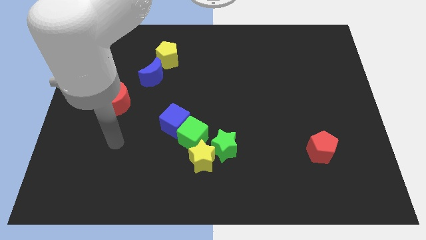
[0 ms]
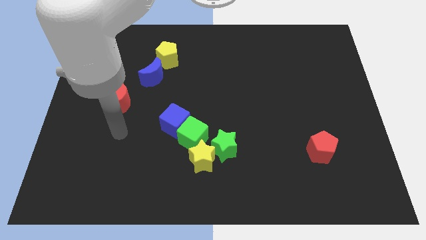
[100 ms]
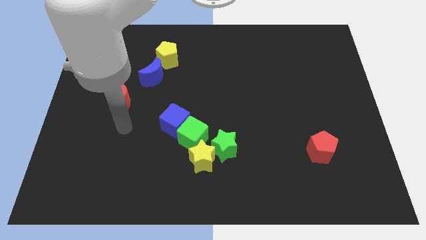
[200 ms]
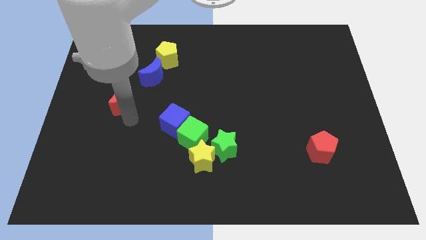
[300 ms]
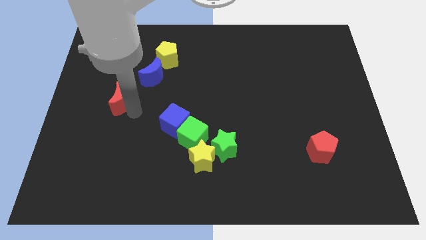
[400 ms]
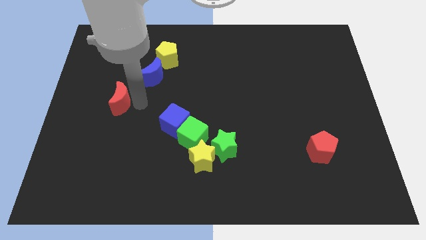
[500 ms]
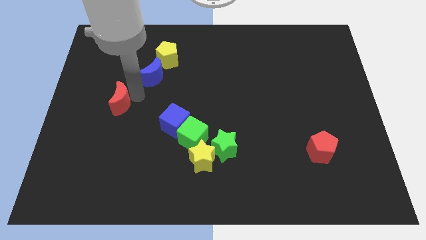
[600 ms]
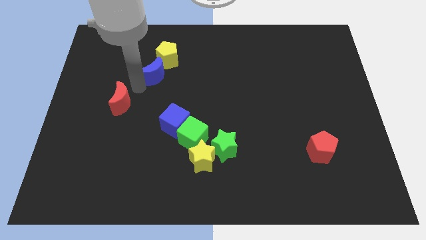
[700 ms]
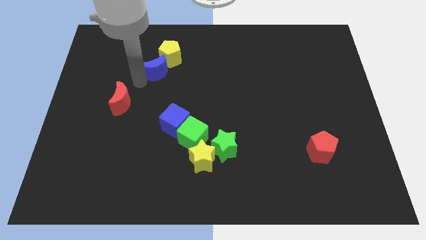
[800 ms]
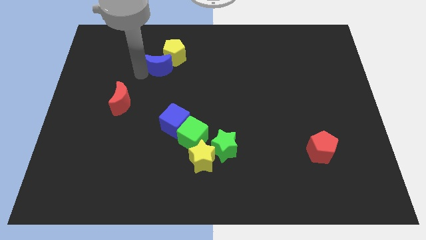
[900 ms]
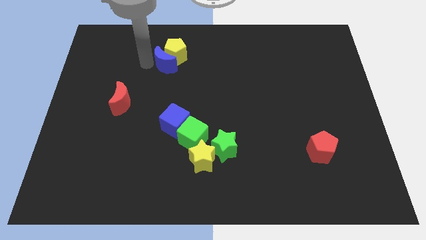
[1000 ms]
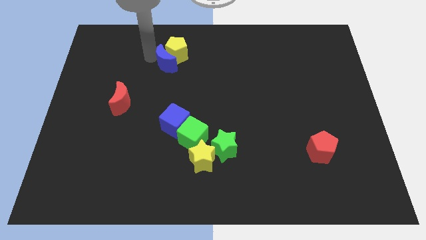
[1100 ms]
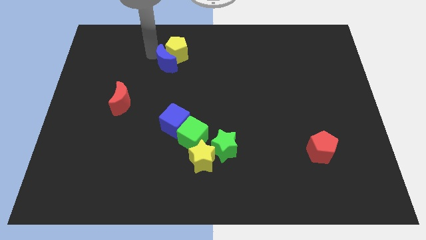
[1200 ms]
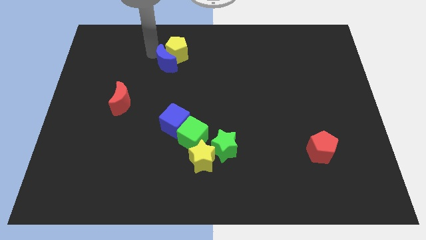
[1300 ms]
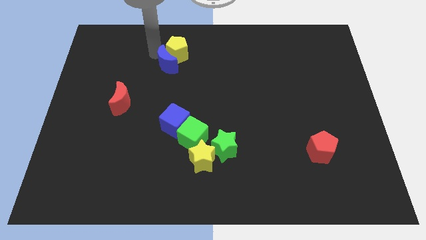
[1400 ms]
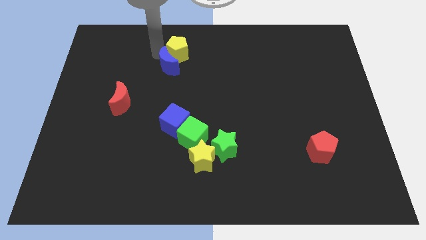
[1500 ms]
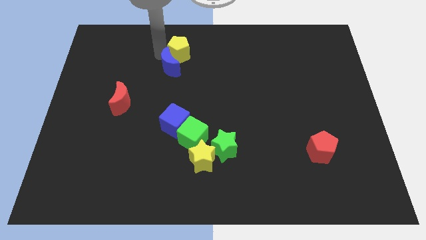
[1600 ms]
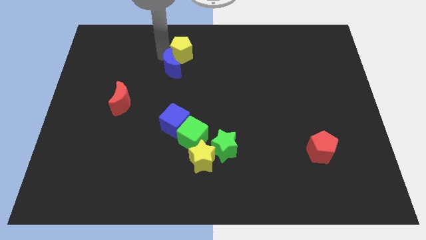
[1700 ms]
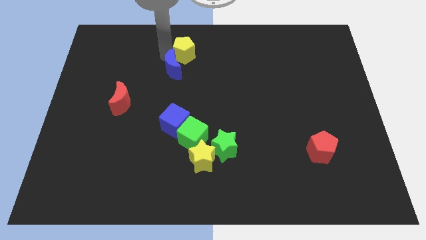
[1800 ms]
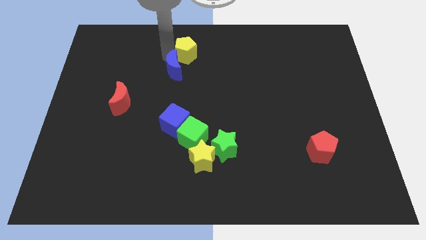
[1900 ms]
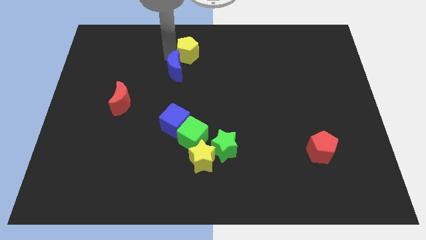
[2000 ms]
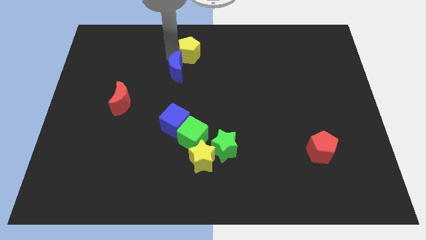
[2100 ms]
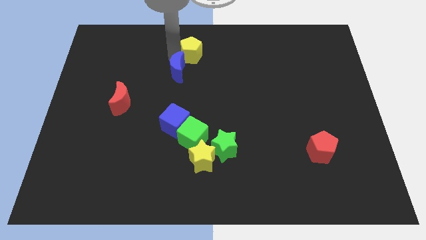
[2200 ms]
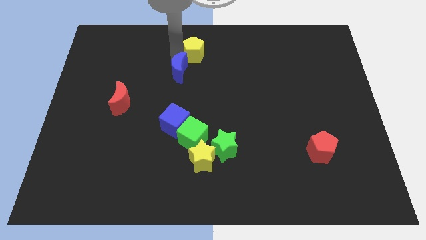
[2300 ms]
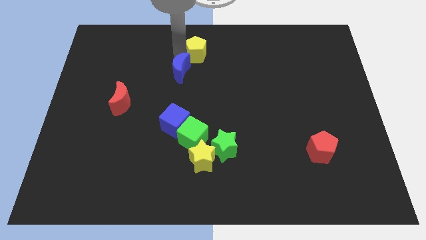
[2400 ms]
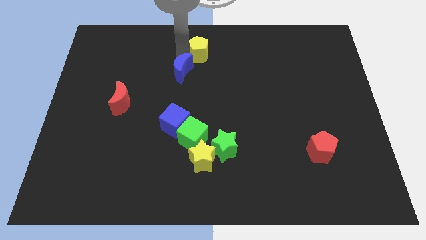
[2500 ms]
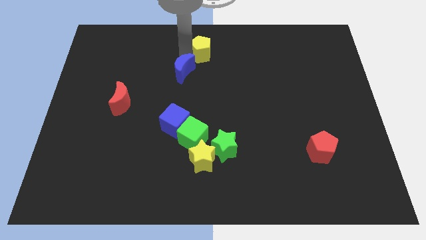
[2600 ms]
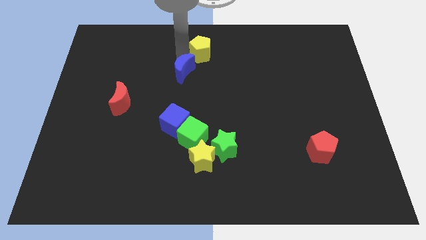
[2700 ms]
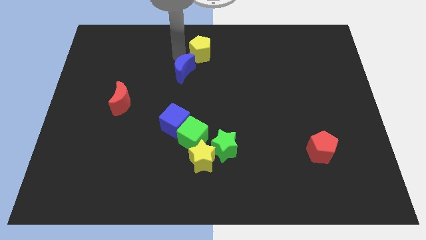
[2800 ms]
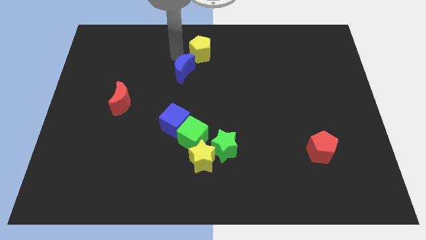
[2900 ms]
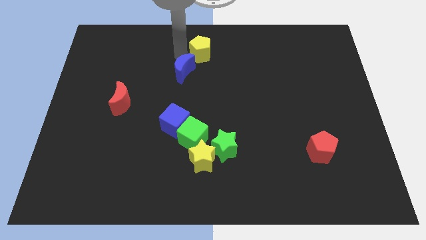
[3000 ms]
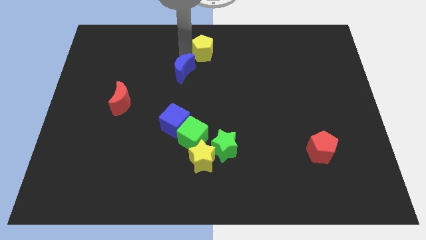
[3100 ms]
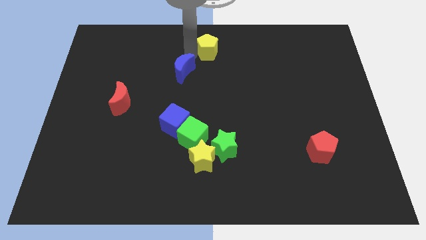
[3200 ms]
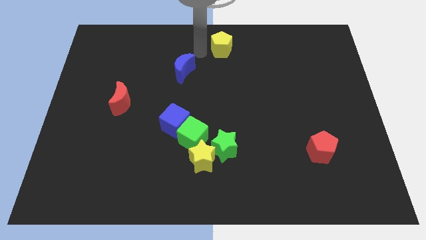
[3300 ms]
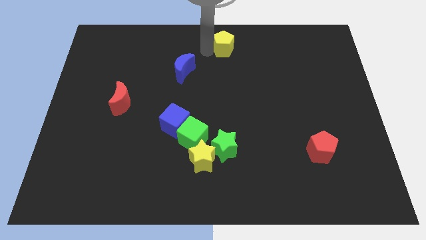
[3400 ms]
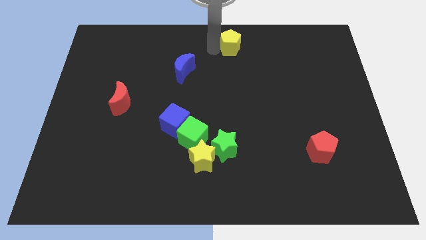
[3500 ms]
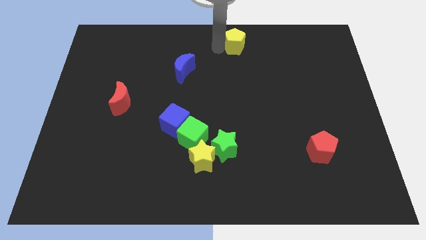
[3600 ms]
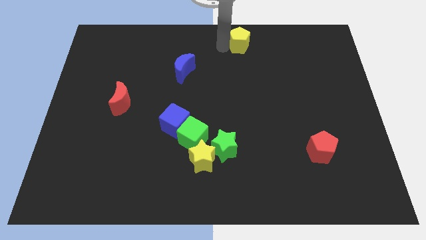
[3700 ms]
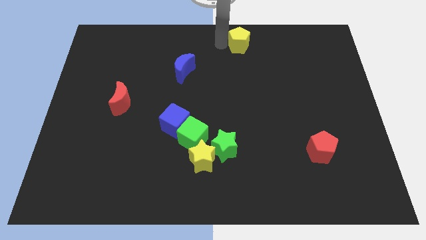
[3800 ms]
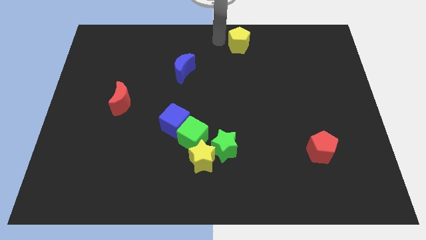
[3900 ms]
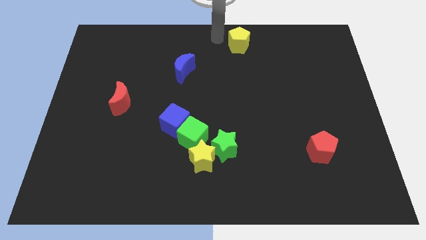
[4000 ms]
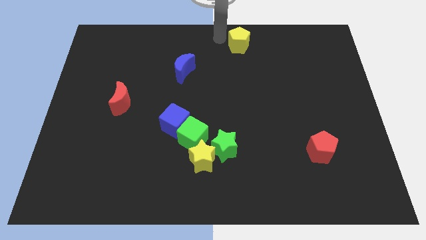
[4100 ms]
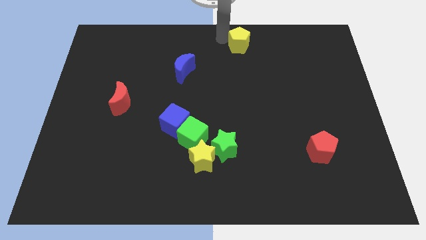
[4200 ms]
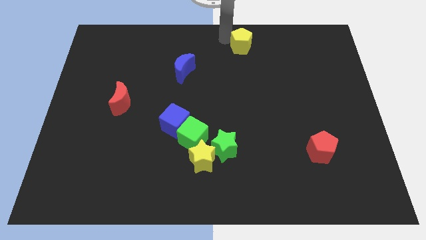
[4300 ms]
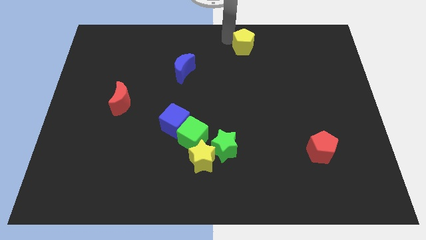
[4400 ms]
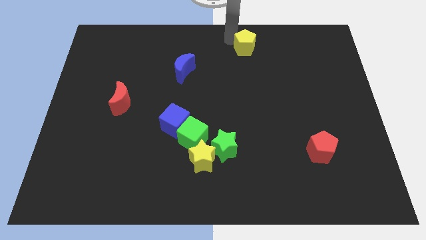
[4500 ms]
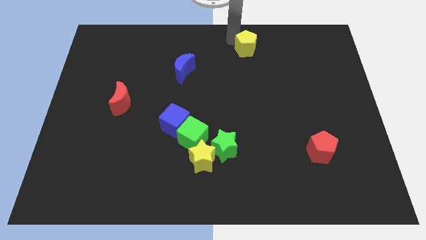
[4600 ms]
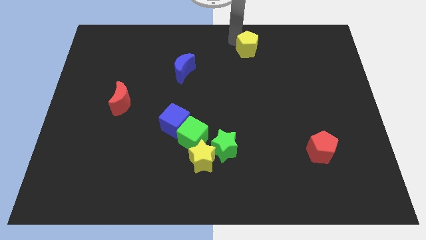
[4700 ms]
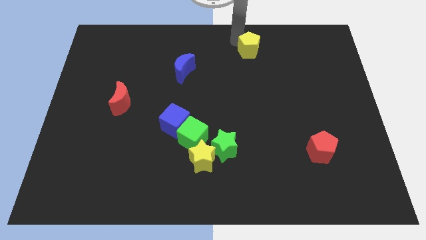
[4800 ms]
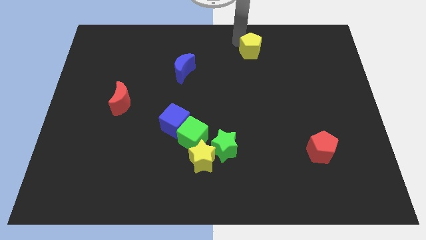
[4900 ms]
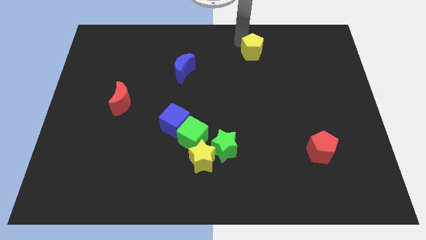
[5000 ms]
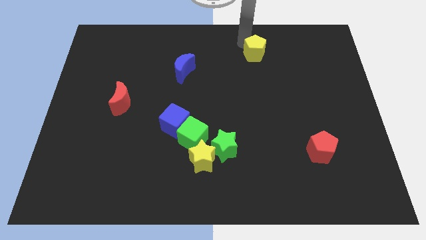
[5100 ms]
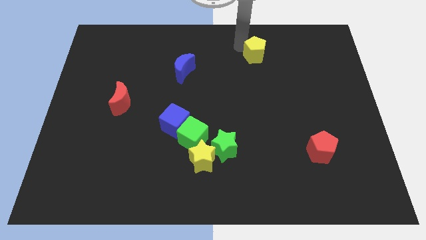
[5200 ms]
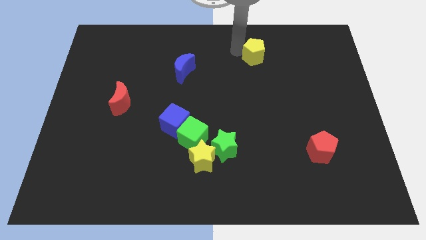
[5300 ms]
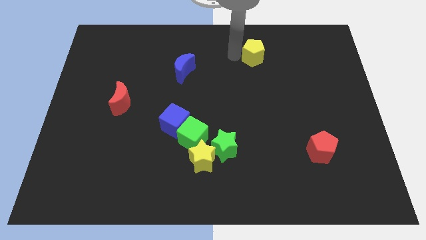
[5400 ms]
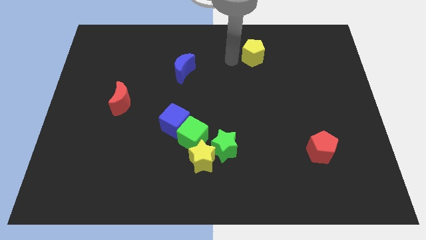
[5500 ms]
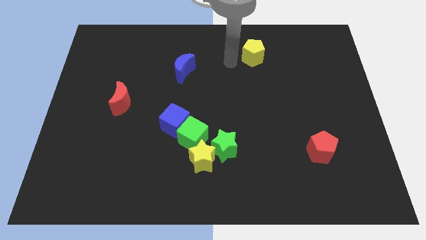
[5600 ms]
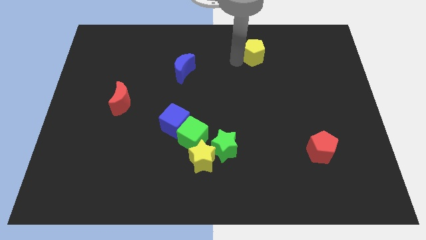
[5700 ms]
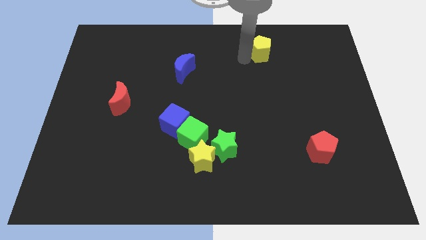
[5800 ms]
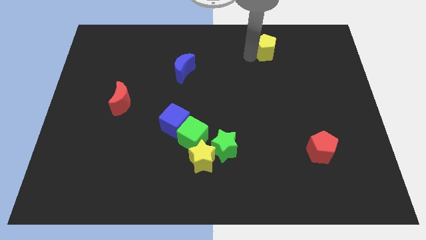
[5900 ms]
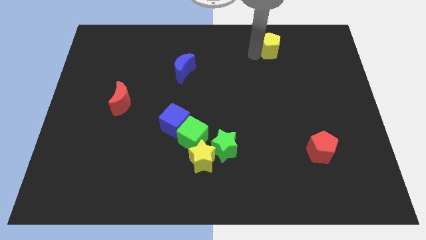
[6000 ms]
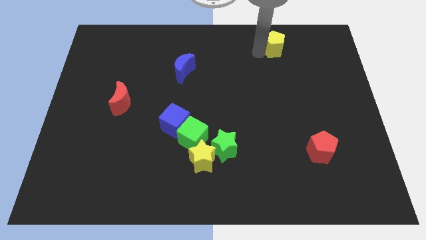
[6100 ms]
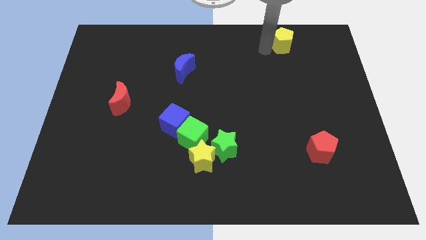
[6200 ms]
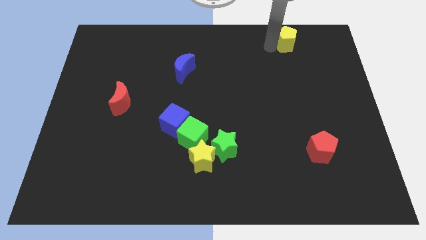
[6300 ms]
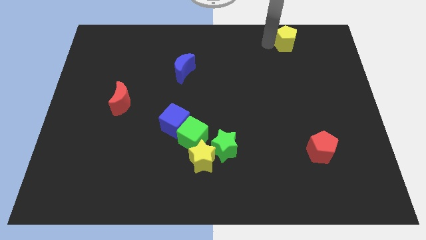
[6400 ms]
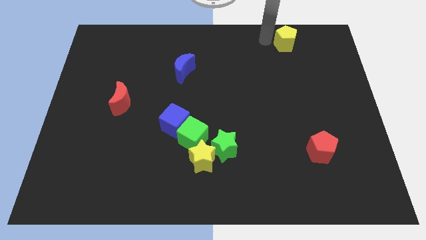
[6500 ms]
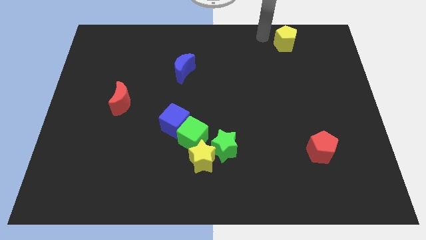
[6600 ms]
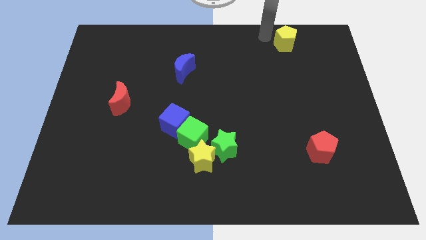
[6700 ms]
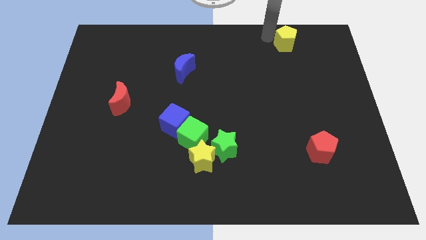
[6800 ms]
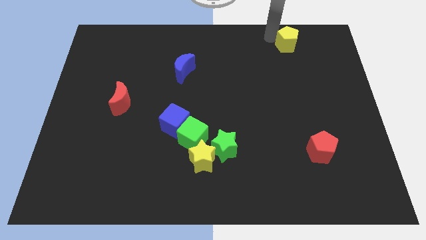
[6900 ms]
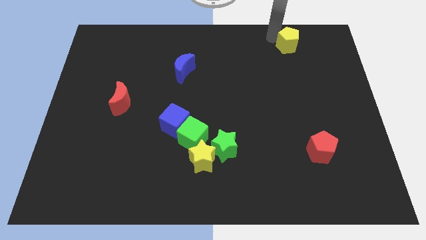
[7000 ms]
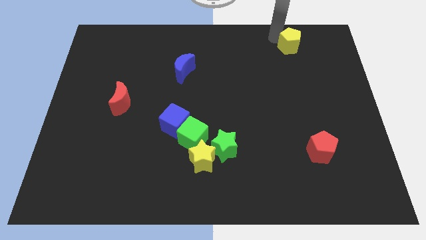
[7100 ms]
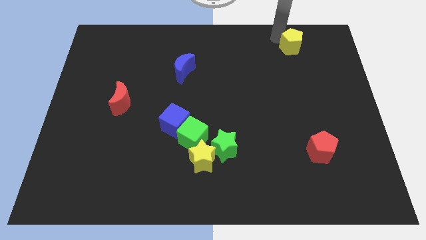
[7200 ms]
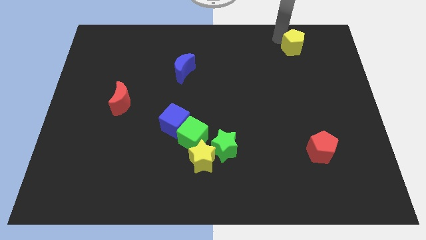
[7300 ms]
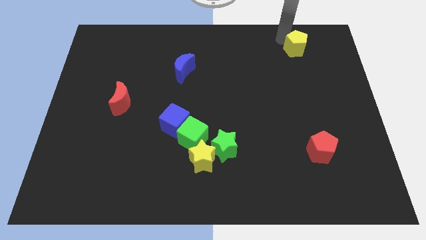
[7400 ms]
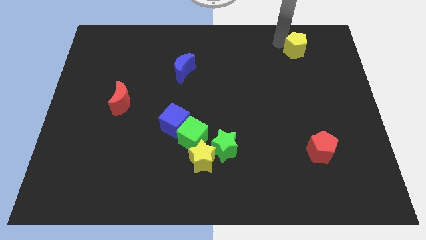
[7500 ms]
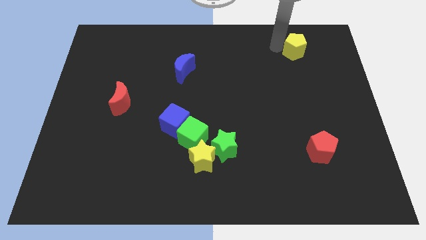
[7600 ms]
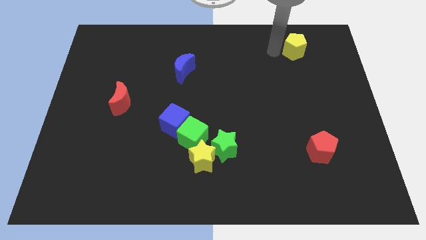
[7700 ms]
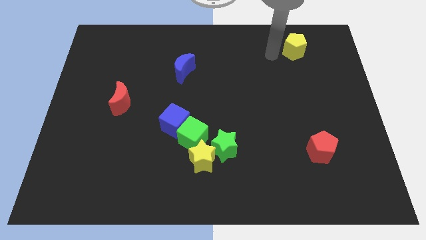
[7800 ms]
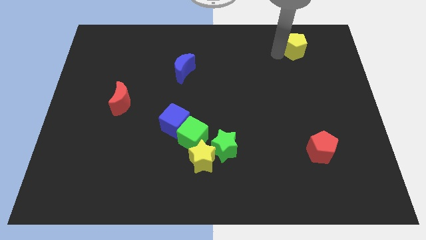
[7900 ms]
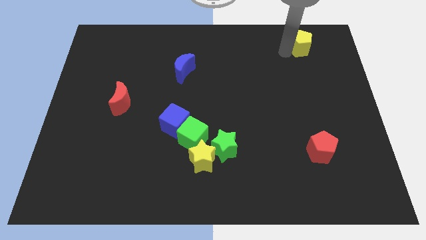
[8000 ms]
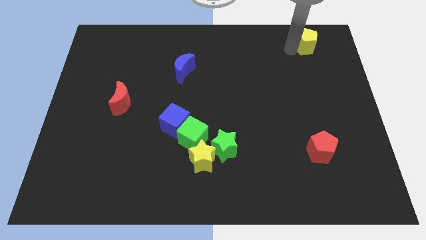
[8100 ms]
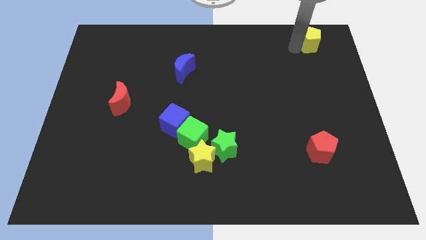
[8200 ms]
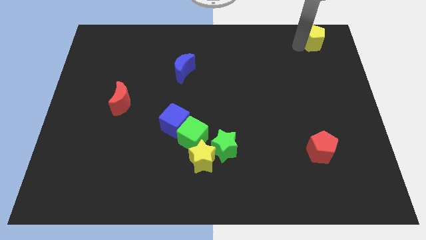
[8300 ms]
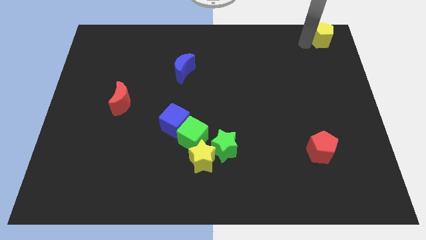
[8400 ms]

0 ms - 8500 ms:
push the yellow pentagon to the top right
